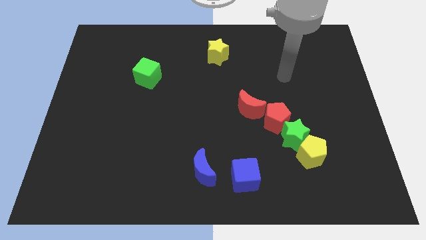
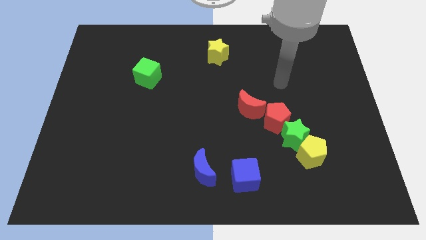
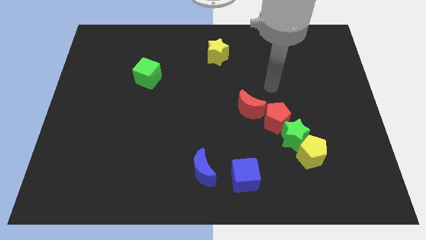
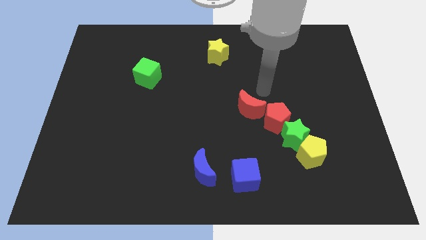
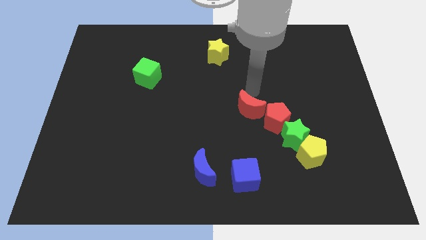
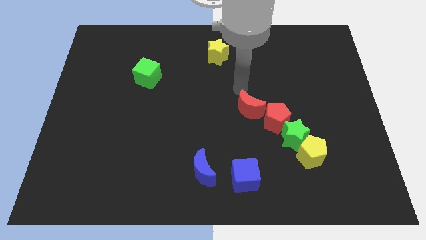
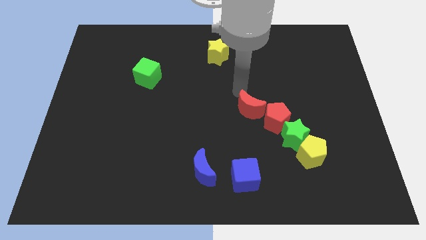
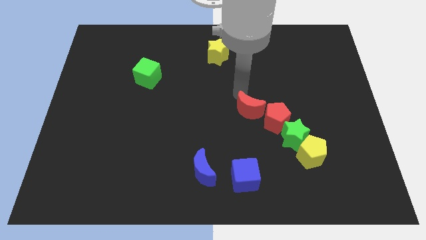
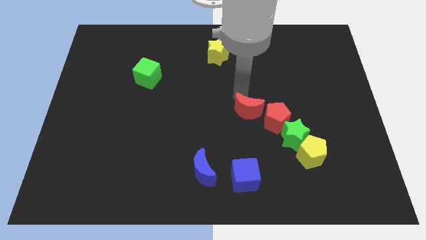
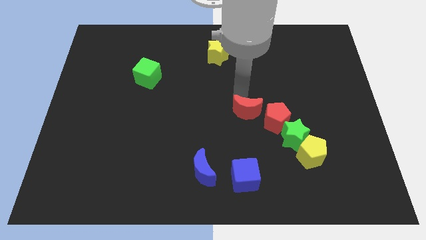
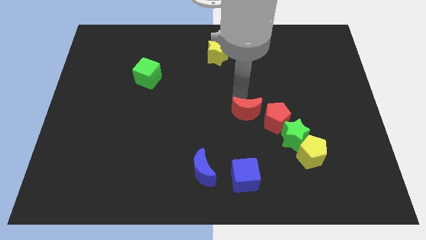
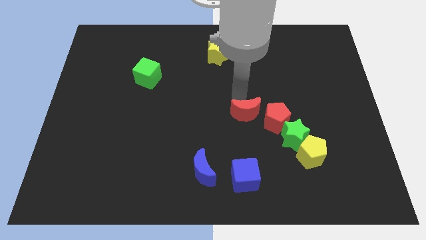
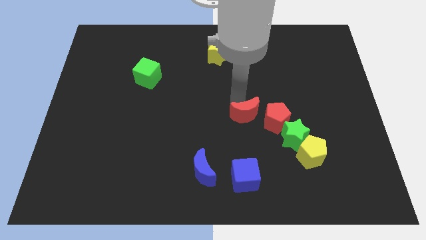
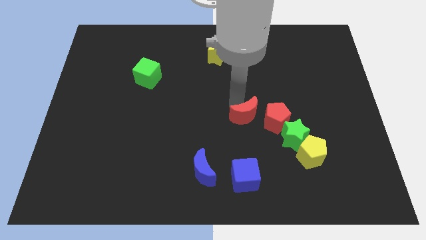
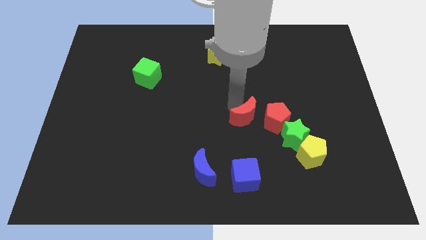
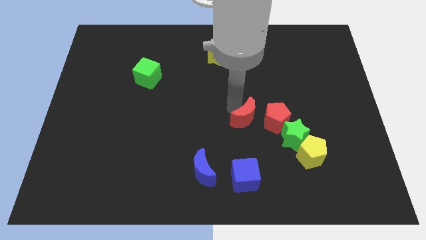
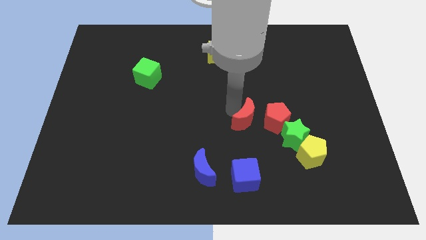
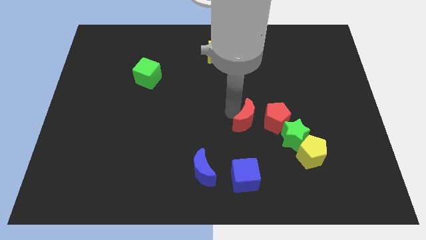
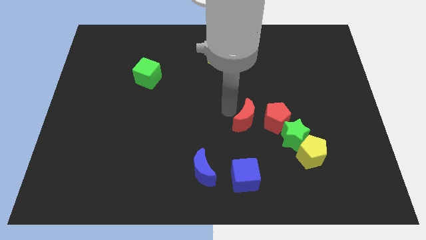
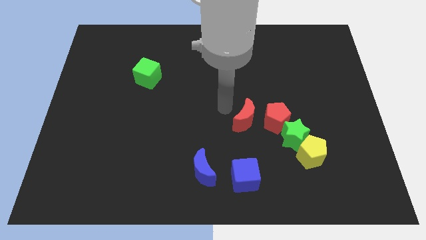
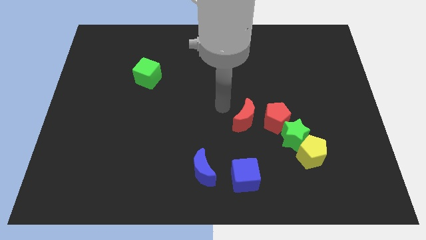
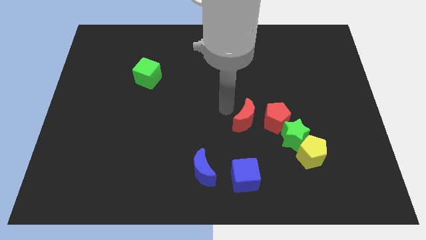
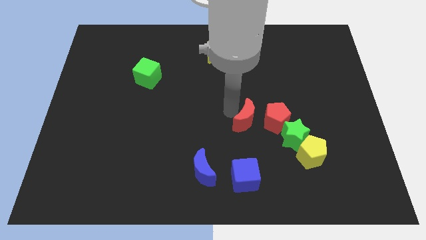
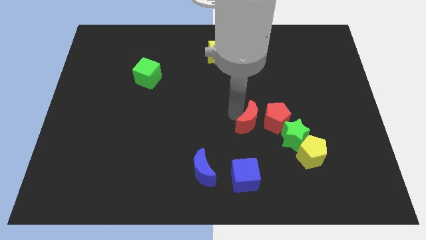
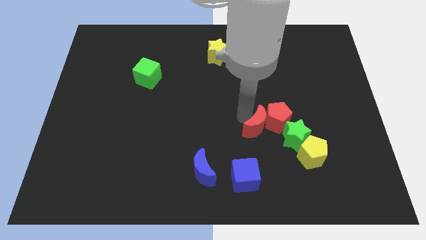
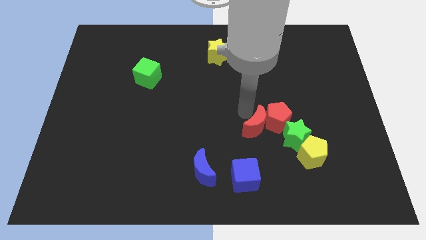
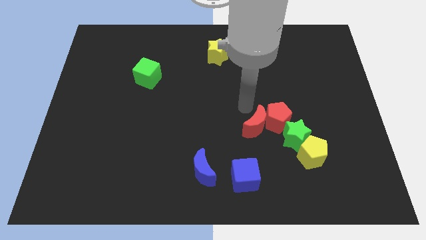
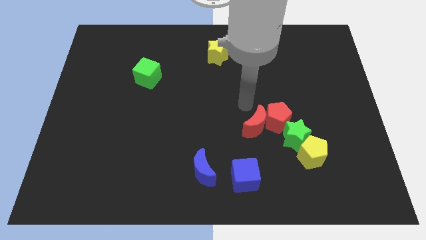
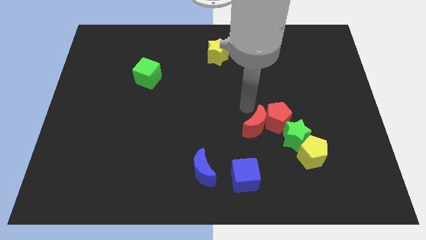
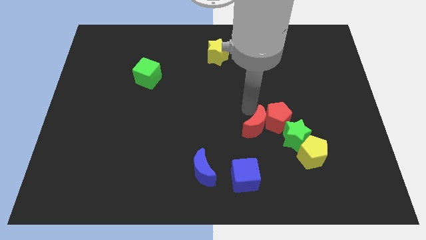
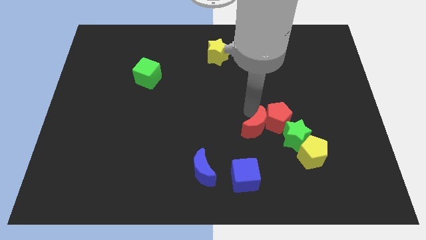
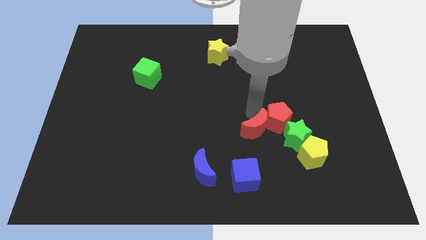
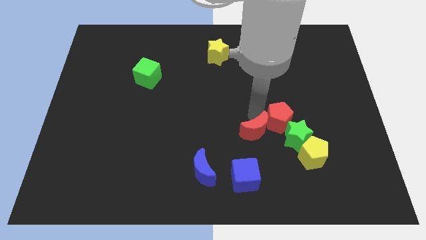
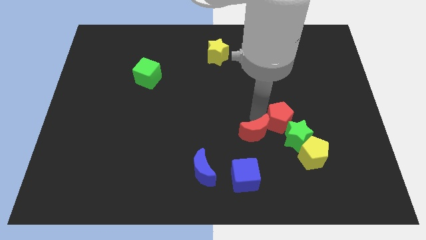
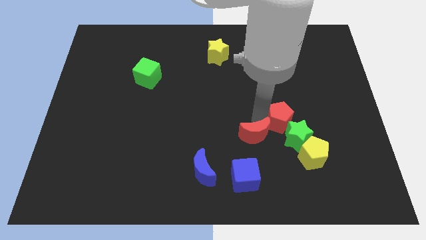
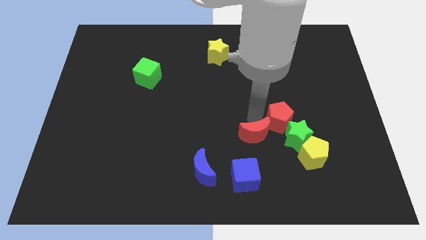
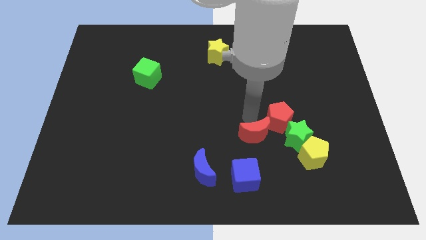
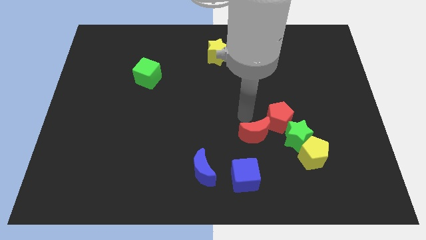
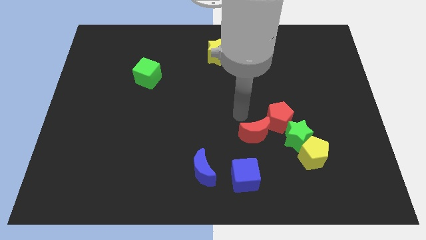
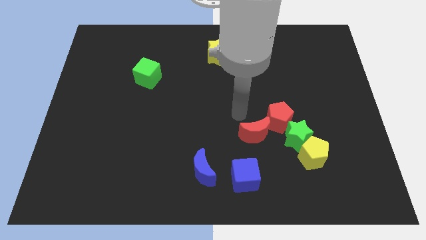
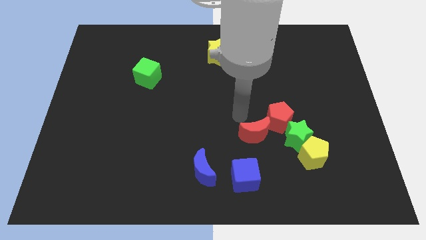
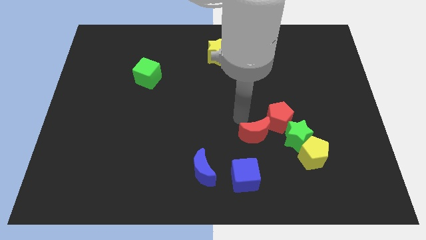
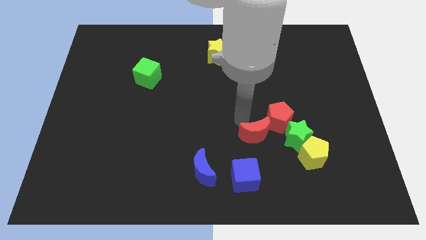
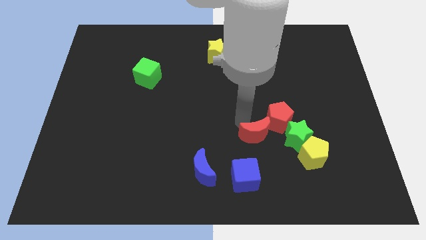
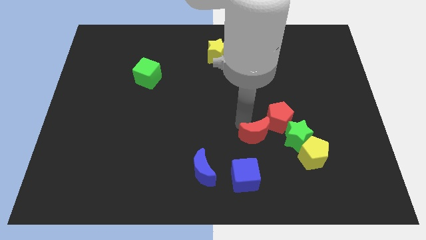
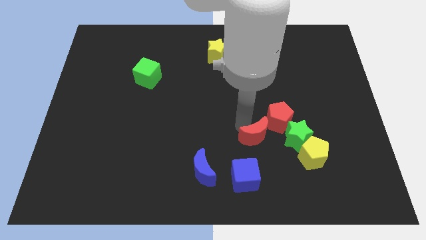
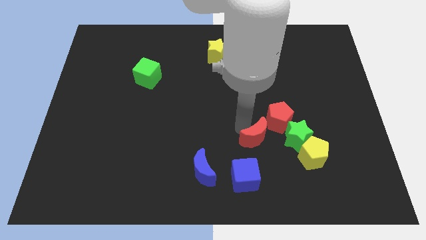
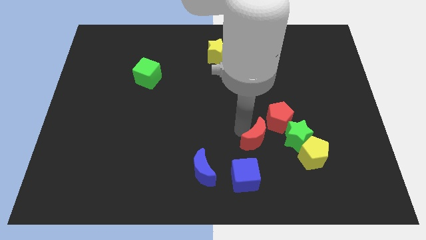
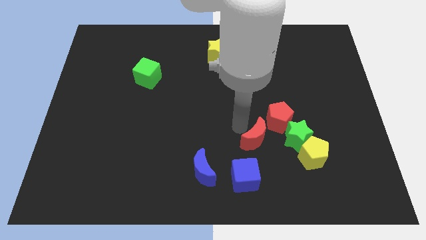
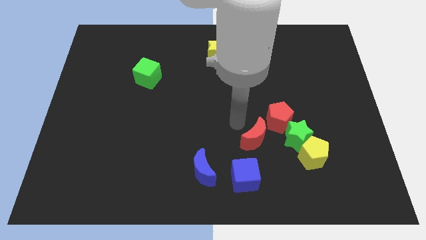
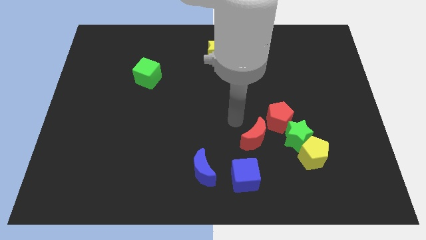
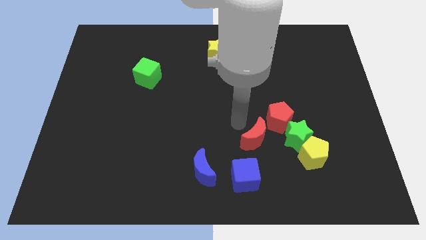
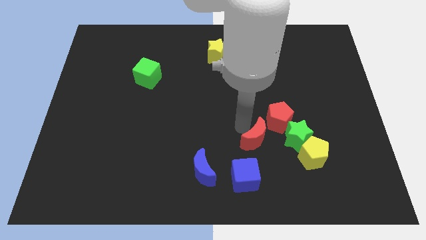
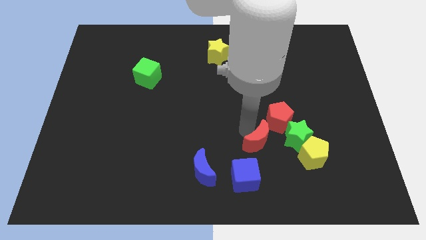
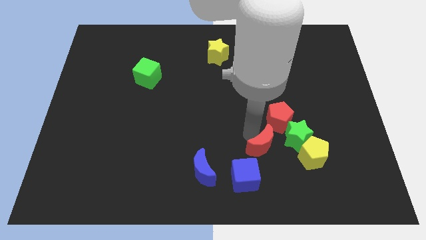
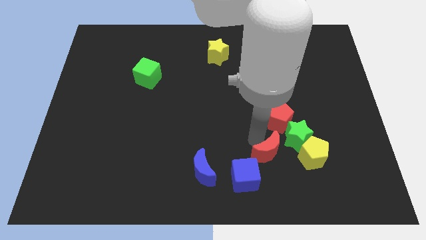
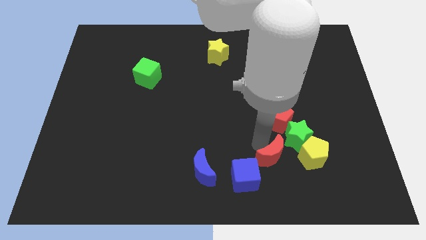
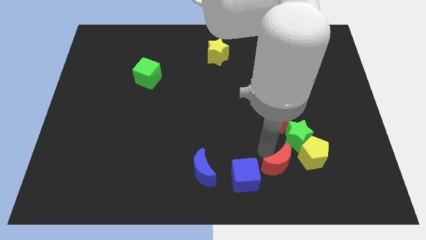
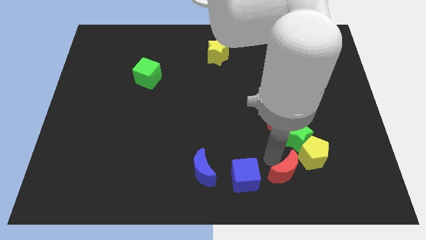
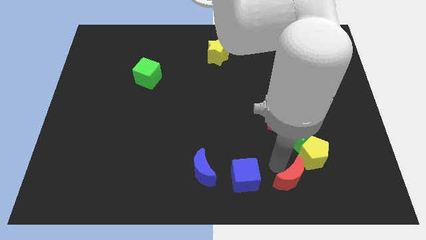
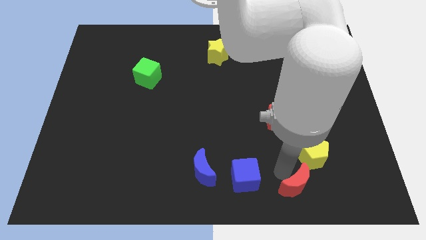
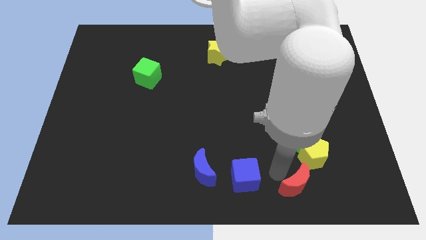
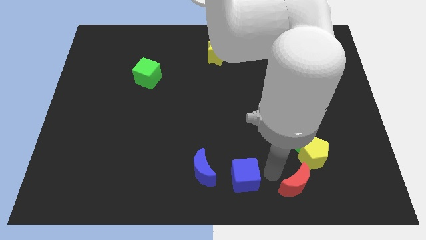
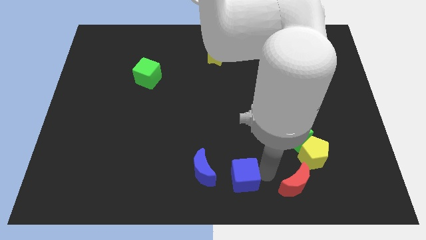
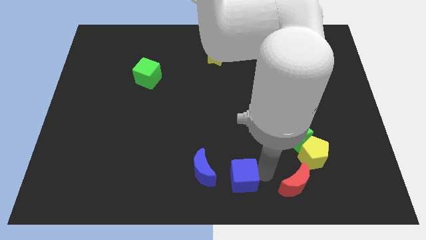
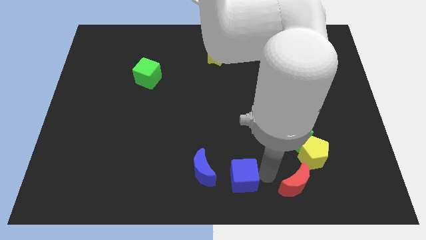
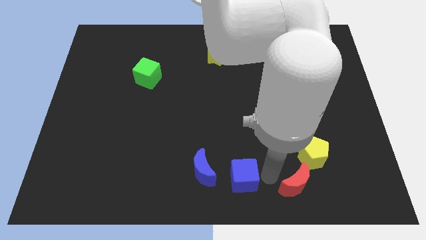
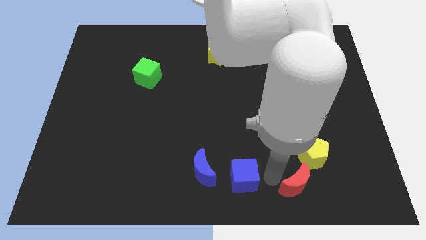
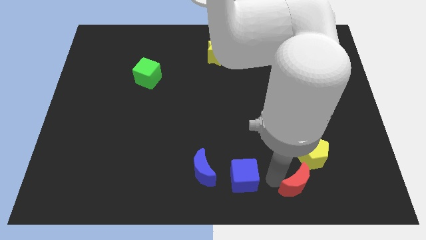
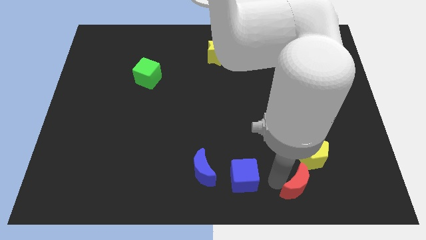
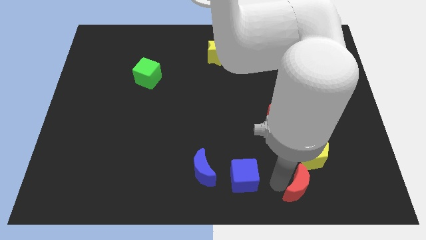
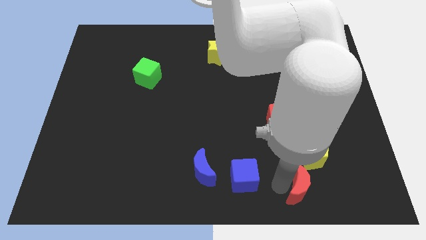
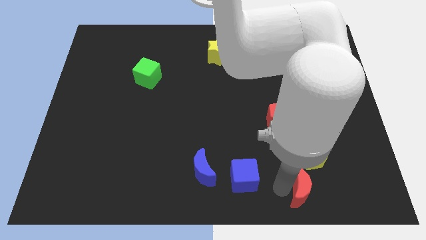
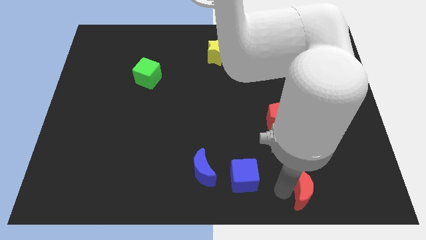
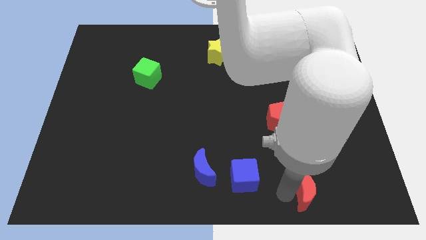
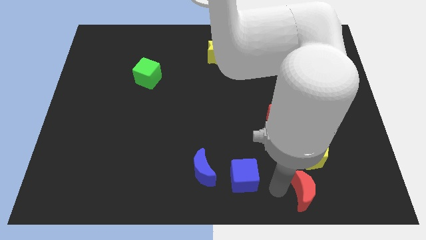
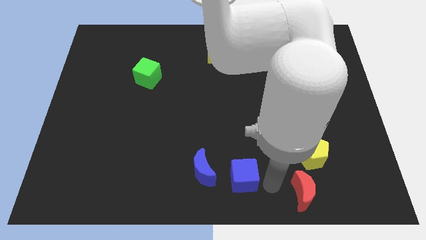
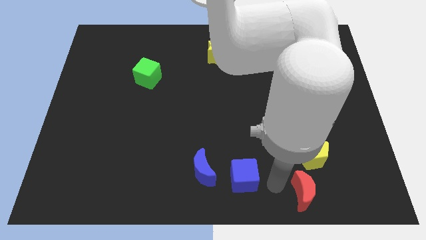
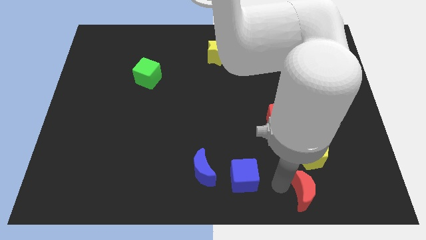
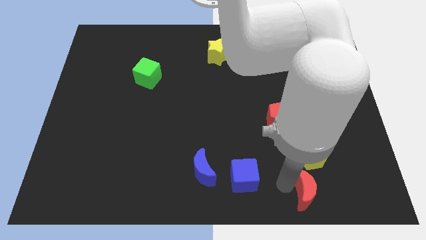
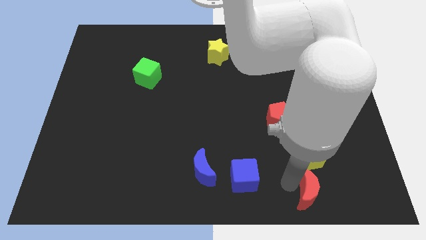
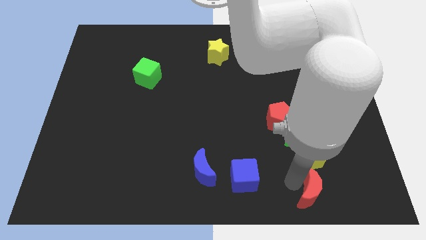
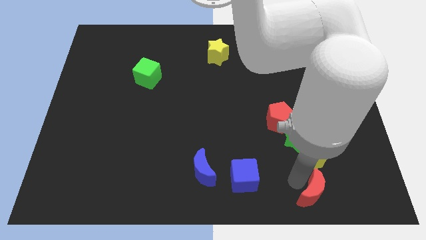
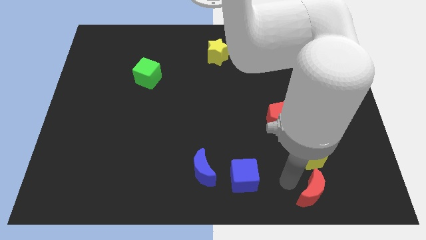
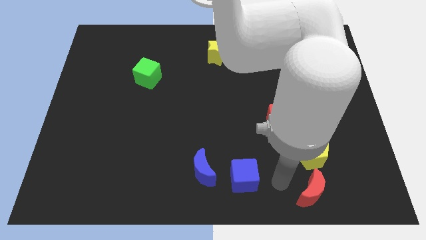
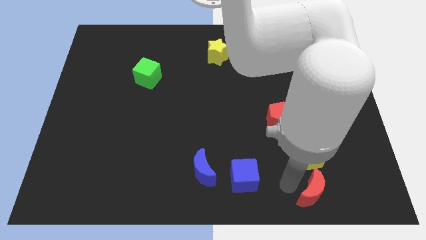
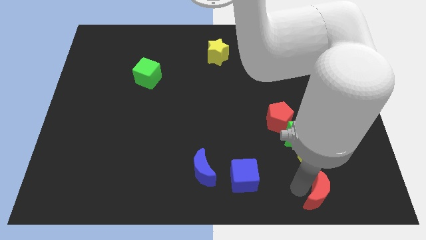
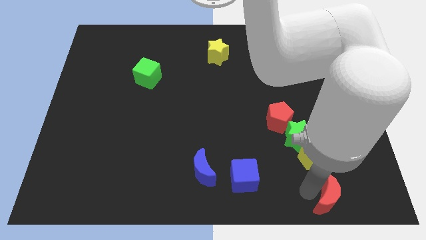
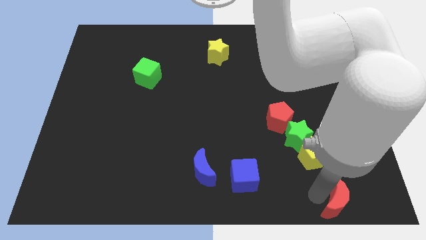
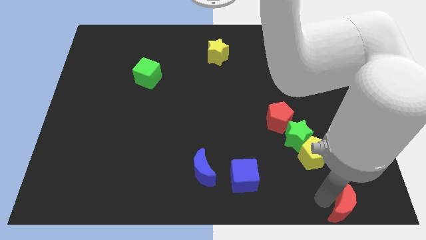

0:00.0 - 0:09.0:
push the red moon to the bottom right
